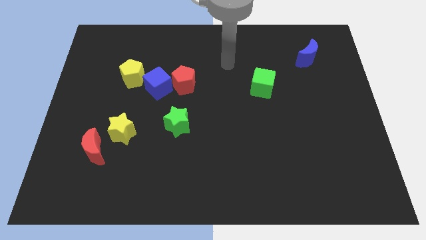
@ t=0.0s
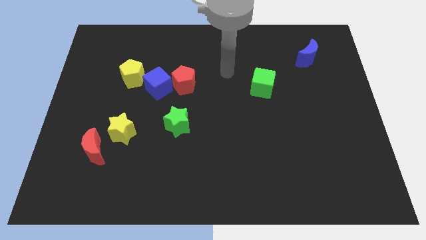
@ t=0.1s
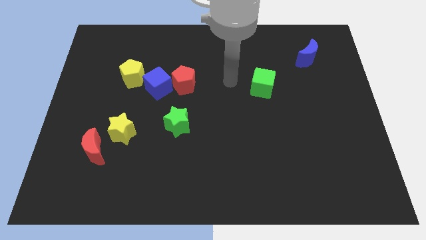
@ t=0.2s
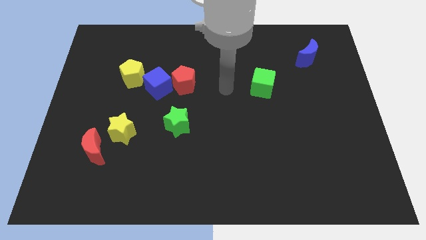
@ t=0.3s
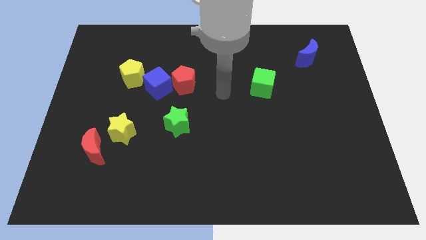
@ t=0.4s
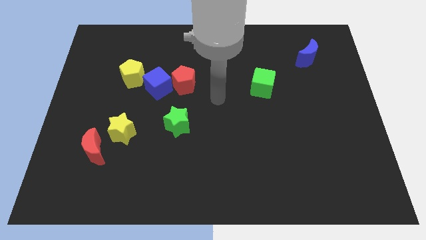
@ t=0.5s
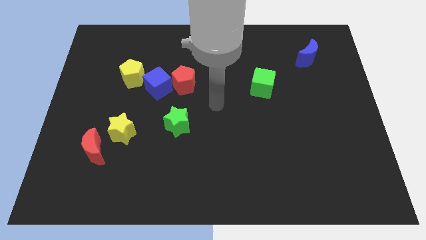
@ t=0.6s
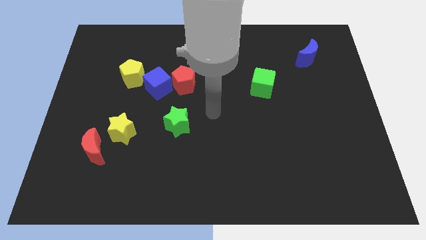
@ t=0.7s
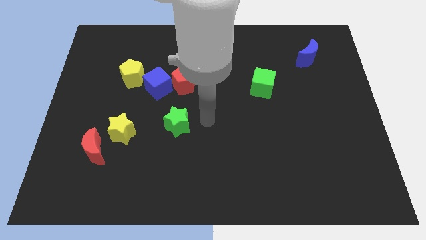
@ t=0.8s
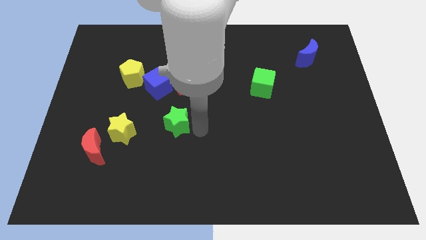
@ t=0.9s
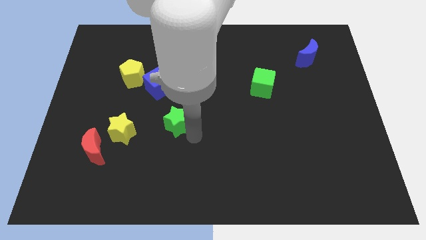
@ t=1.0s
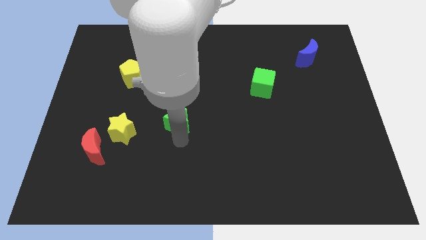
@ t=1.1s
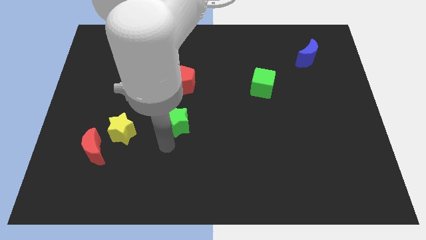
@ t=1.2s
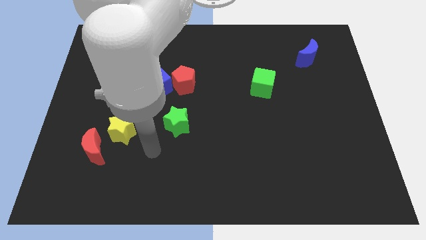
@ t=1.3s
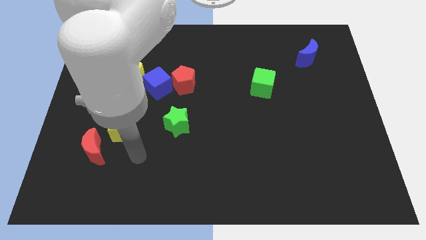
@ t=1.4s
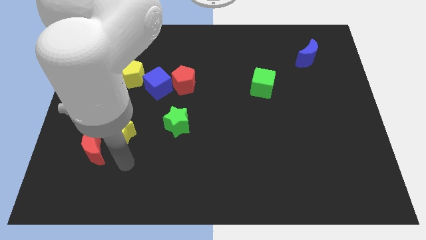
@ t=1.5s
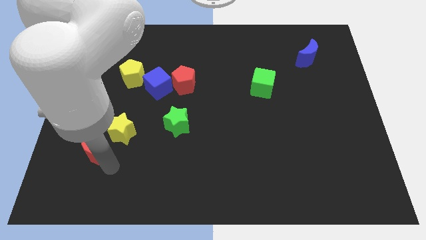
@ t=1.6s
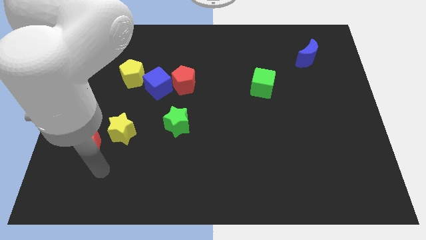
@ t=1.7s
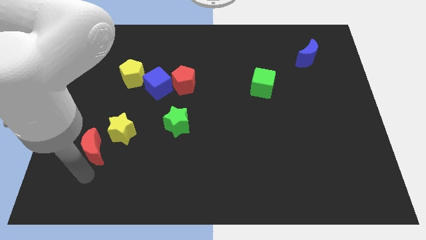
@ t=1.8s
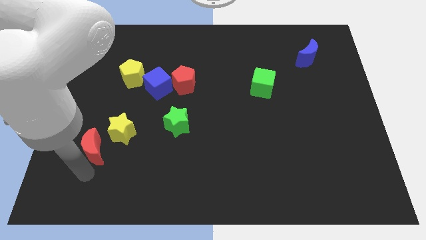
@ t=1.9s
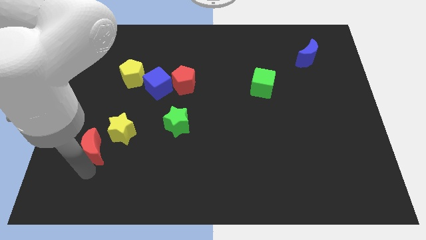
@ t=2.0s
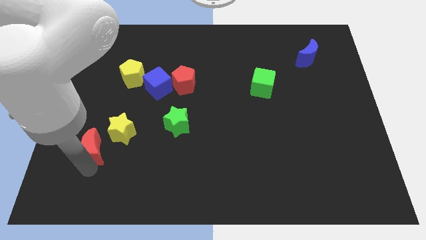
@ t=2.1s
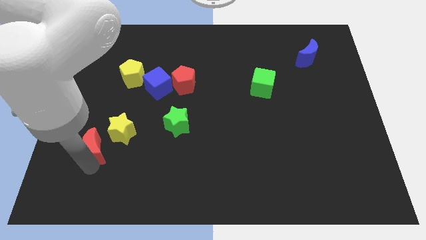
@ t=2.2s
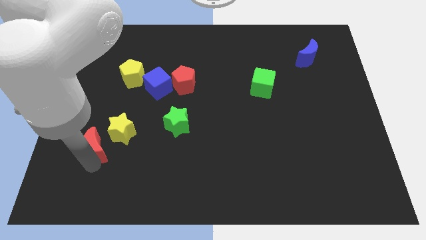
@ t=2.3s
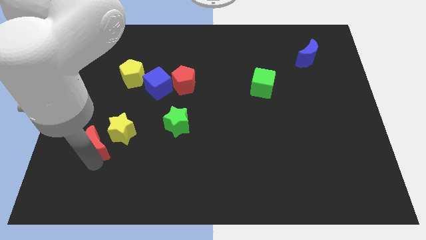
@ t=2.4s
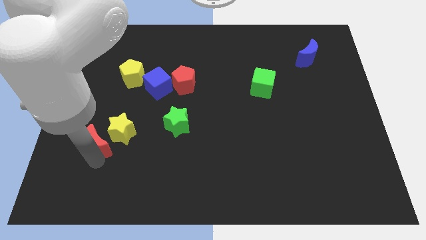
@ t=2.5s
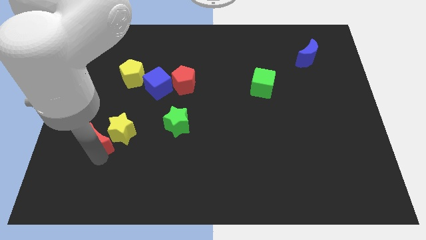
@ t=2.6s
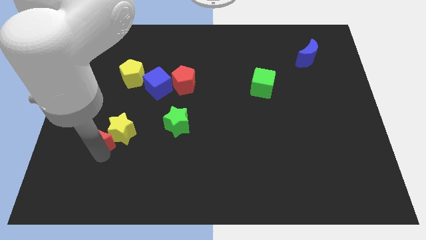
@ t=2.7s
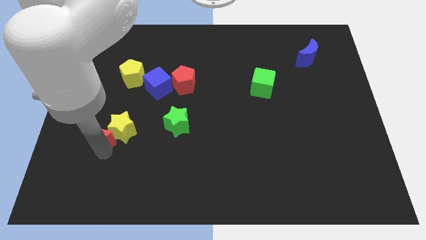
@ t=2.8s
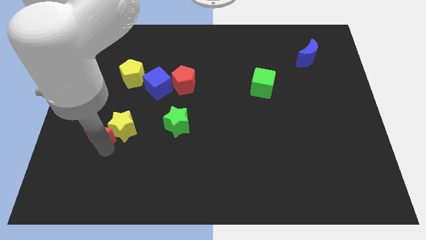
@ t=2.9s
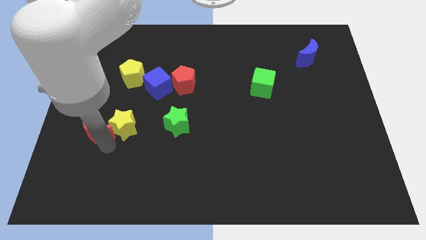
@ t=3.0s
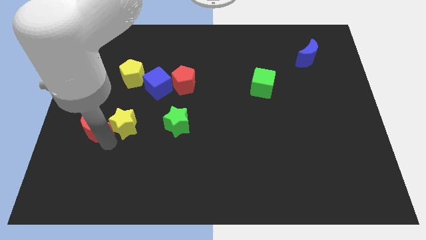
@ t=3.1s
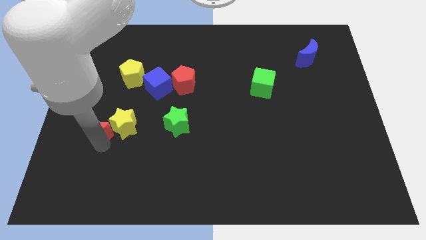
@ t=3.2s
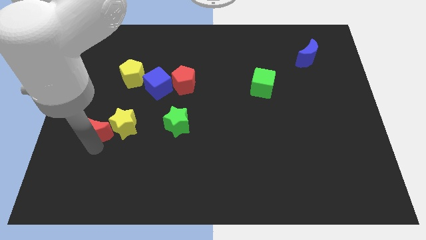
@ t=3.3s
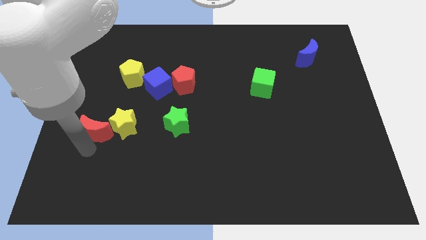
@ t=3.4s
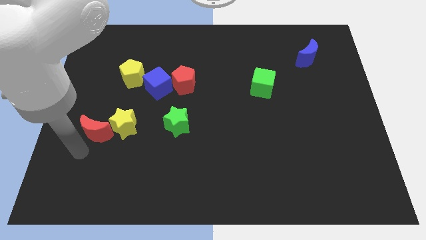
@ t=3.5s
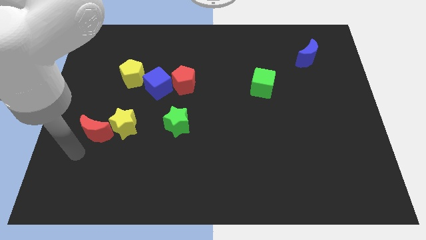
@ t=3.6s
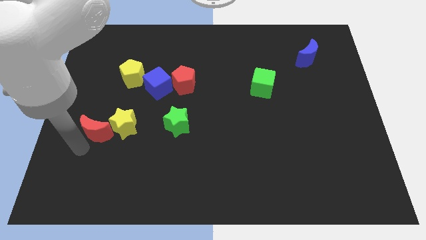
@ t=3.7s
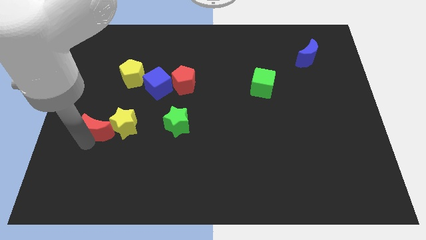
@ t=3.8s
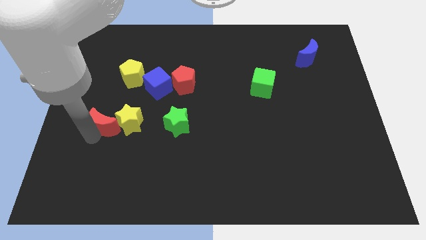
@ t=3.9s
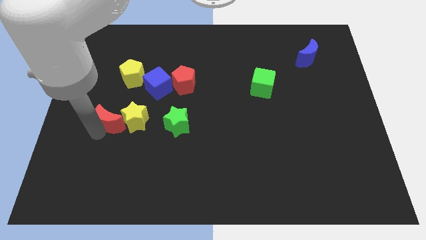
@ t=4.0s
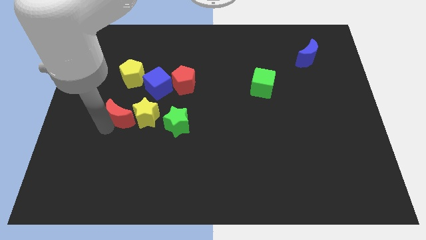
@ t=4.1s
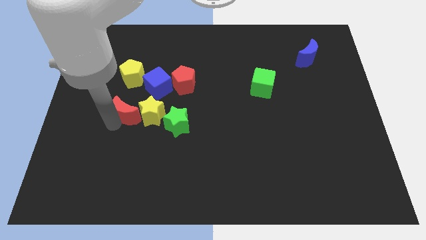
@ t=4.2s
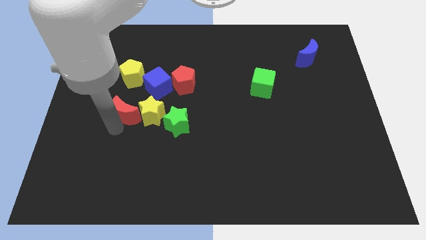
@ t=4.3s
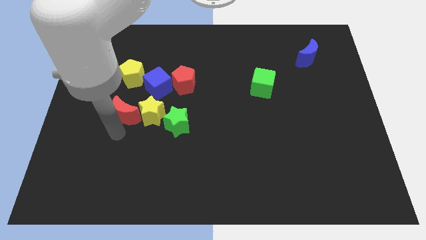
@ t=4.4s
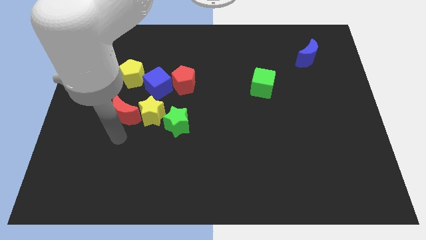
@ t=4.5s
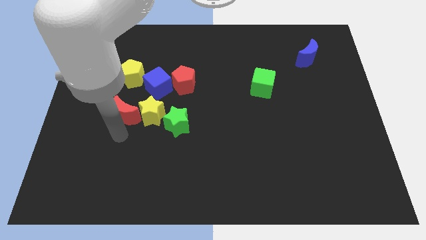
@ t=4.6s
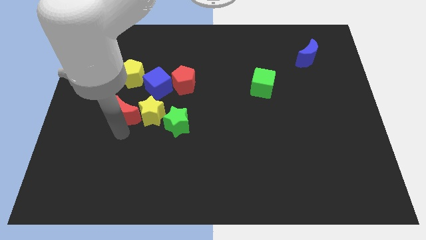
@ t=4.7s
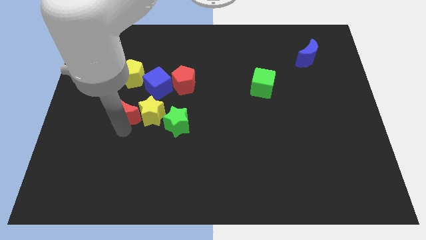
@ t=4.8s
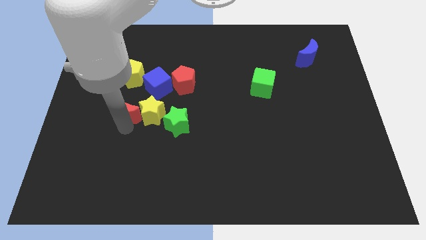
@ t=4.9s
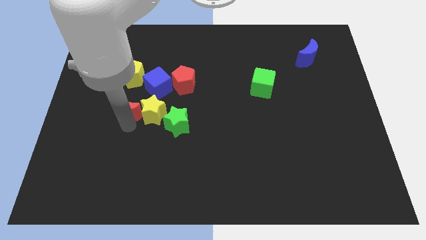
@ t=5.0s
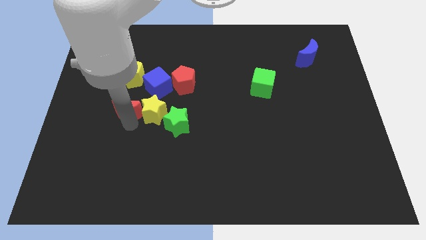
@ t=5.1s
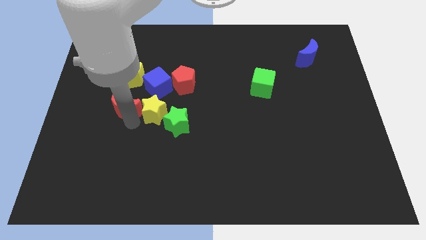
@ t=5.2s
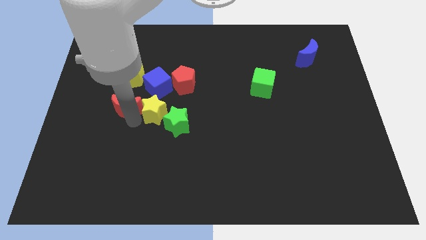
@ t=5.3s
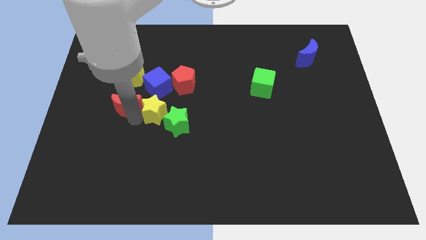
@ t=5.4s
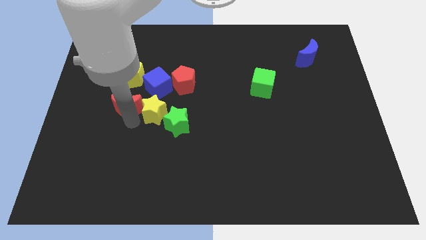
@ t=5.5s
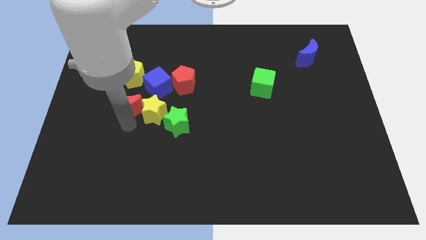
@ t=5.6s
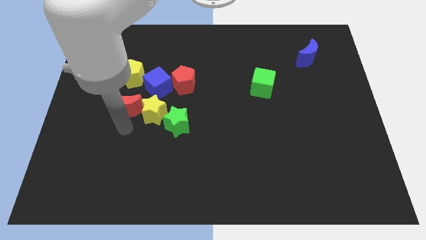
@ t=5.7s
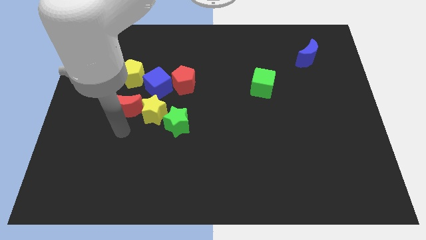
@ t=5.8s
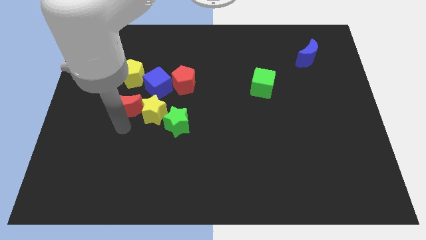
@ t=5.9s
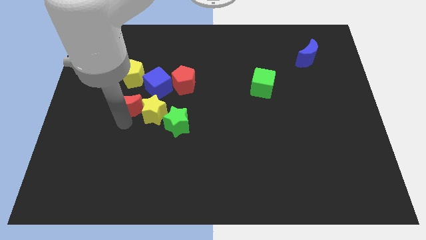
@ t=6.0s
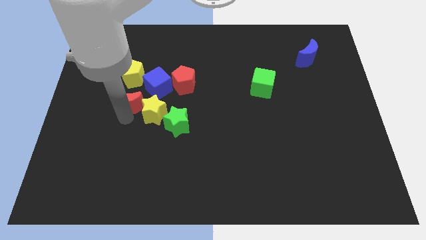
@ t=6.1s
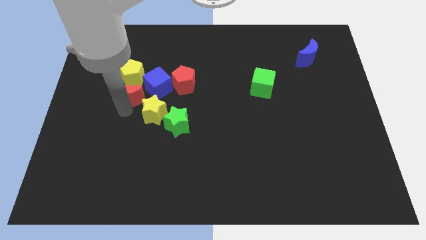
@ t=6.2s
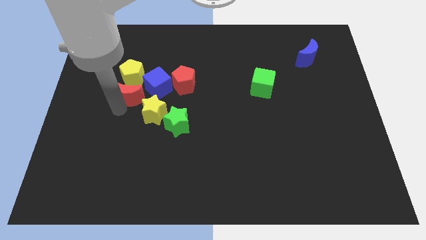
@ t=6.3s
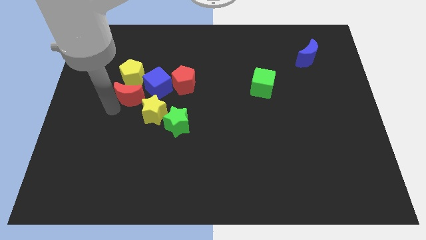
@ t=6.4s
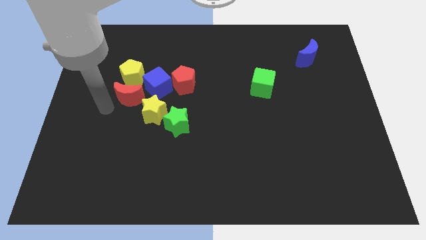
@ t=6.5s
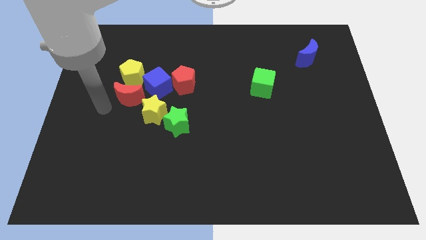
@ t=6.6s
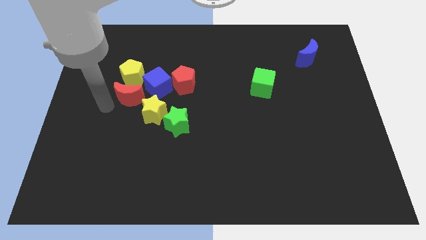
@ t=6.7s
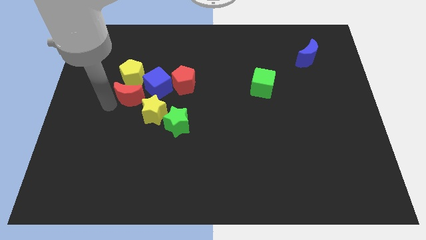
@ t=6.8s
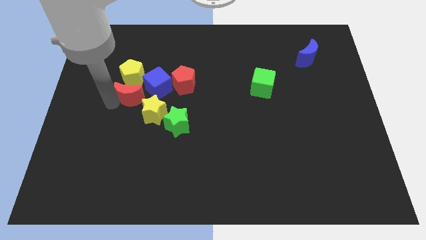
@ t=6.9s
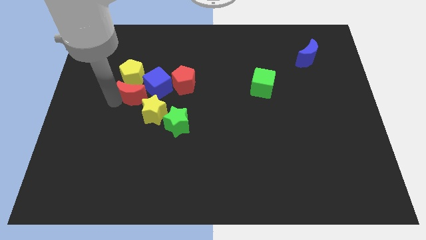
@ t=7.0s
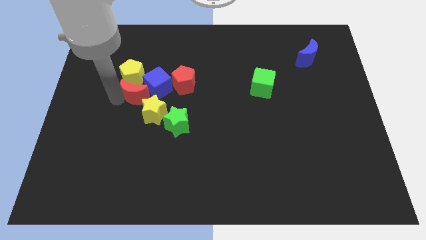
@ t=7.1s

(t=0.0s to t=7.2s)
move the red moon close to the blue cube
